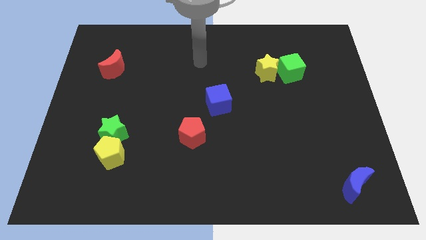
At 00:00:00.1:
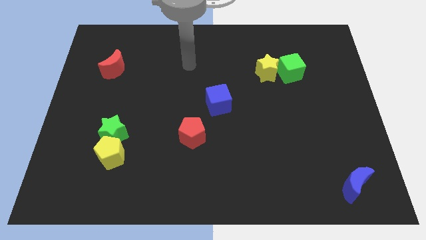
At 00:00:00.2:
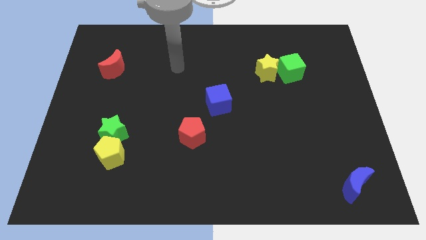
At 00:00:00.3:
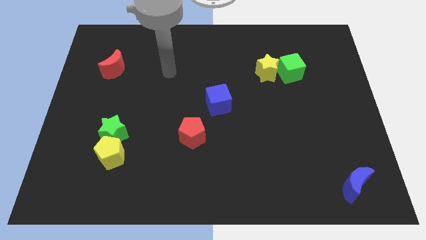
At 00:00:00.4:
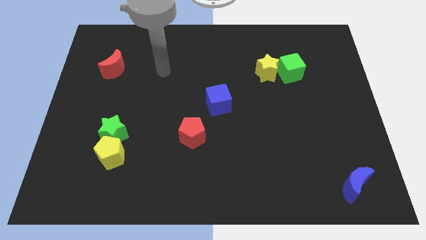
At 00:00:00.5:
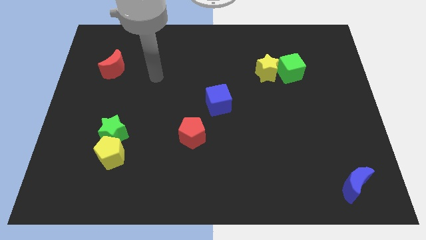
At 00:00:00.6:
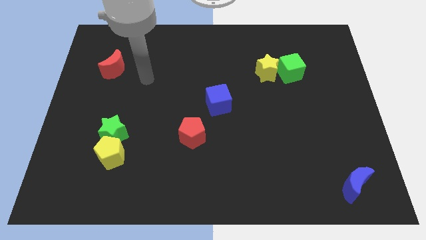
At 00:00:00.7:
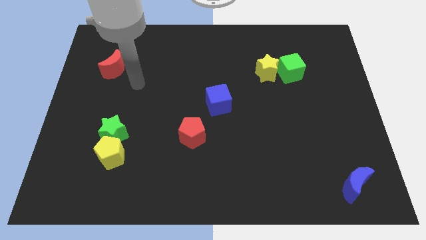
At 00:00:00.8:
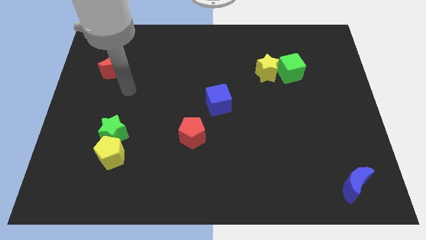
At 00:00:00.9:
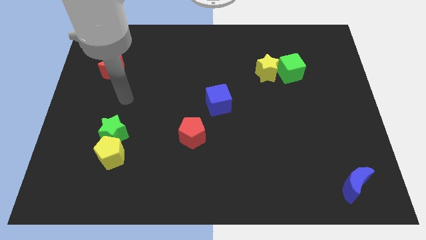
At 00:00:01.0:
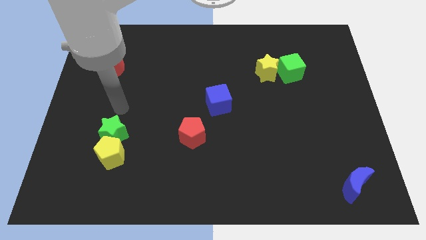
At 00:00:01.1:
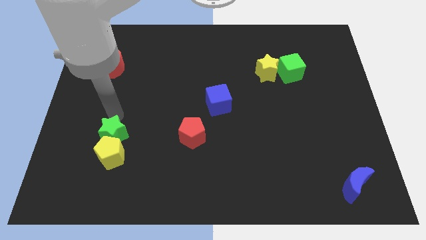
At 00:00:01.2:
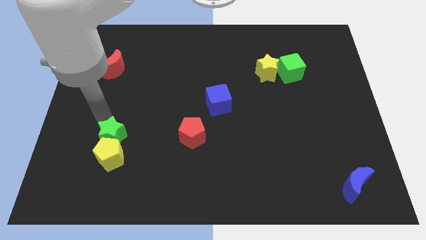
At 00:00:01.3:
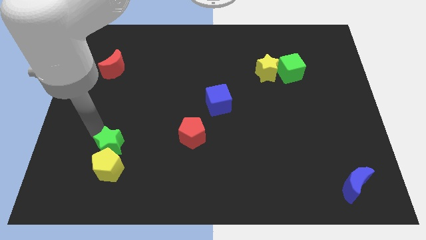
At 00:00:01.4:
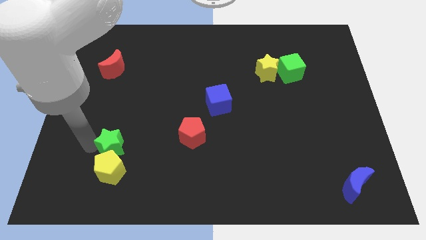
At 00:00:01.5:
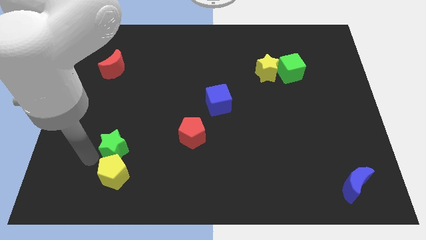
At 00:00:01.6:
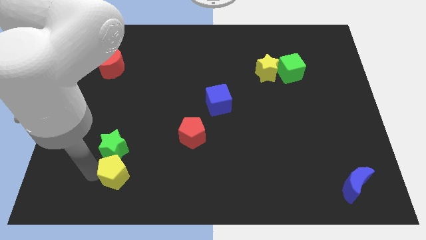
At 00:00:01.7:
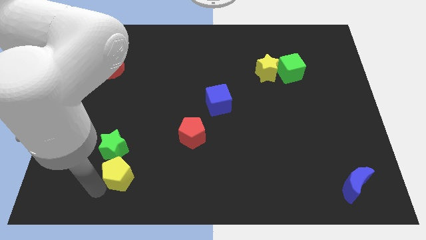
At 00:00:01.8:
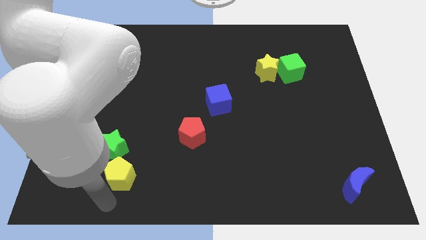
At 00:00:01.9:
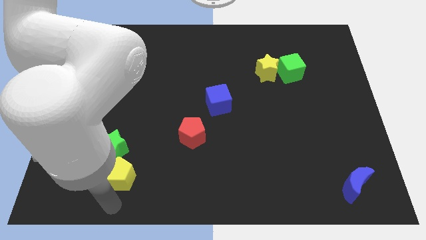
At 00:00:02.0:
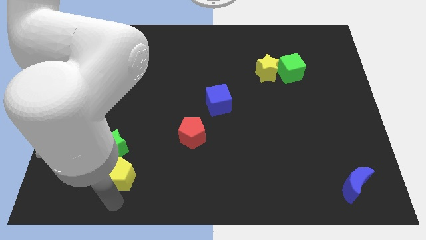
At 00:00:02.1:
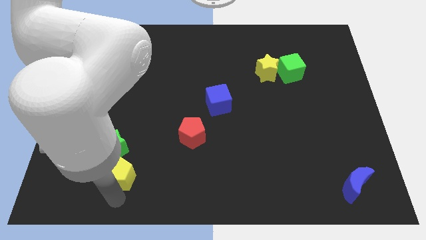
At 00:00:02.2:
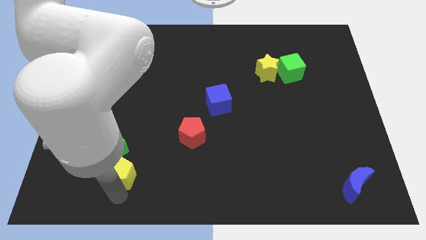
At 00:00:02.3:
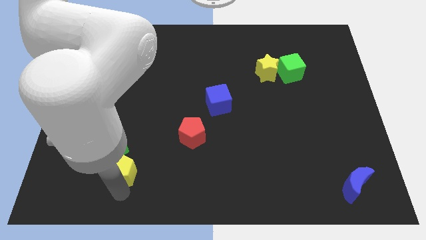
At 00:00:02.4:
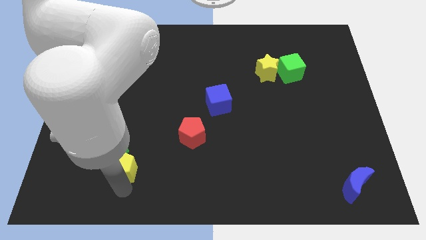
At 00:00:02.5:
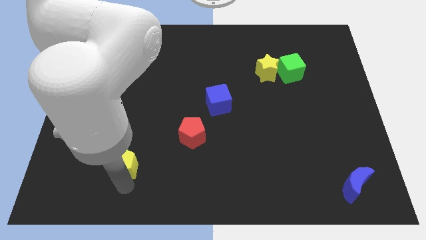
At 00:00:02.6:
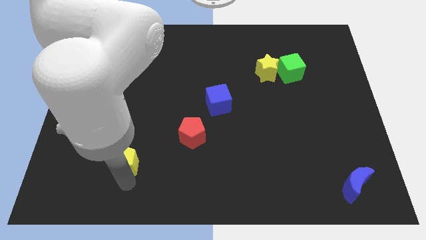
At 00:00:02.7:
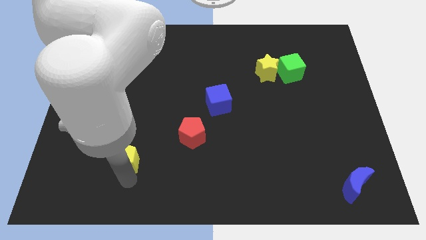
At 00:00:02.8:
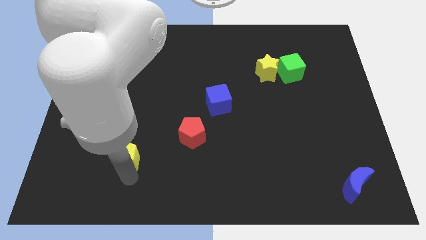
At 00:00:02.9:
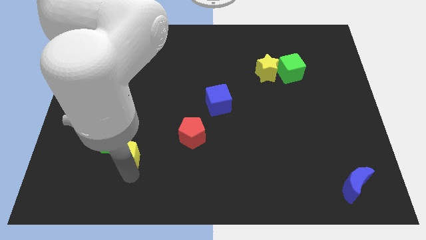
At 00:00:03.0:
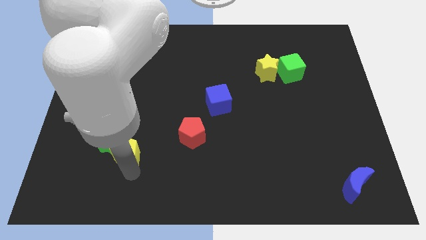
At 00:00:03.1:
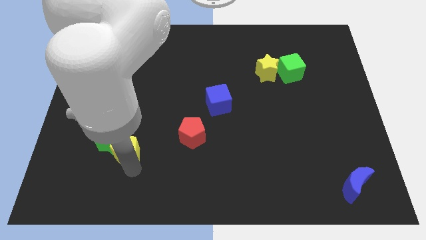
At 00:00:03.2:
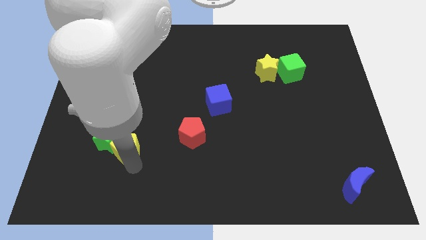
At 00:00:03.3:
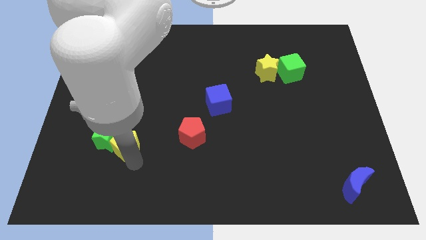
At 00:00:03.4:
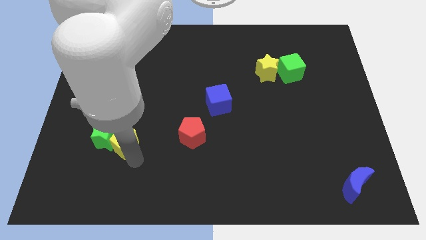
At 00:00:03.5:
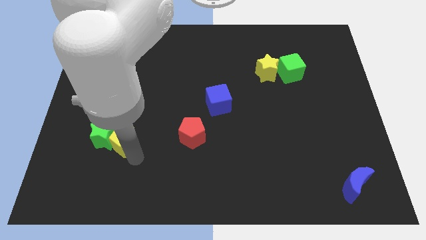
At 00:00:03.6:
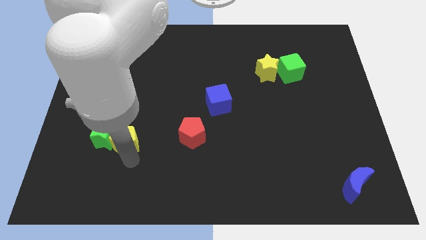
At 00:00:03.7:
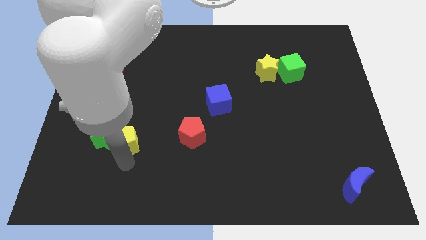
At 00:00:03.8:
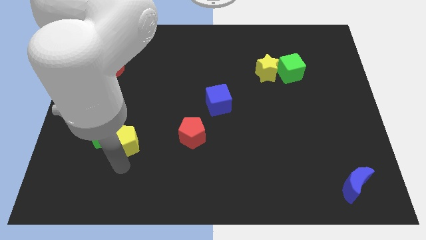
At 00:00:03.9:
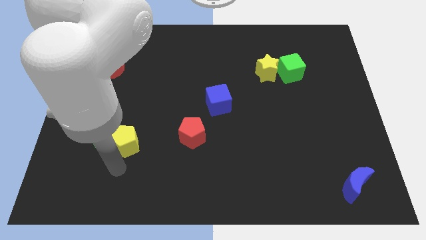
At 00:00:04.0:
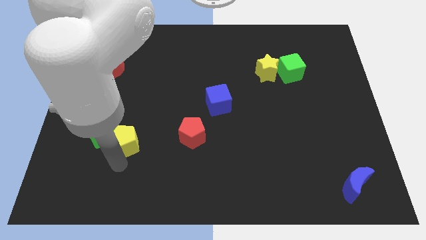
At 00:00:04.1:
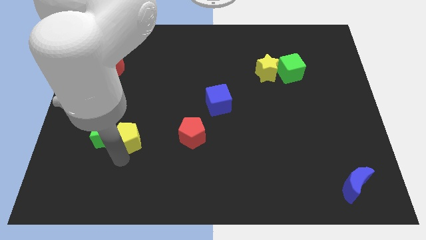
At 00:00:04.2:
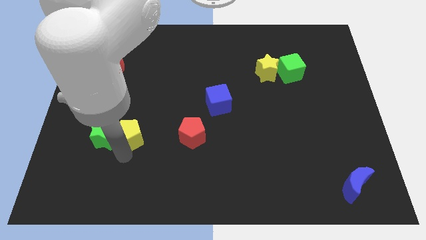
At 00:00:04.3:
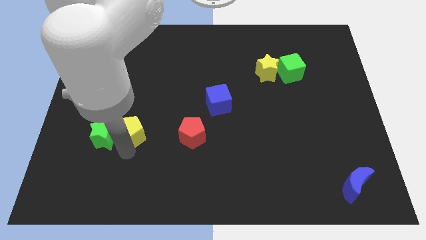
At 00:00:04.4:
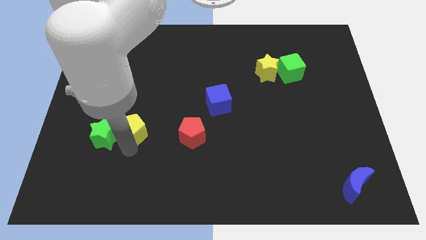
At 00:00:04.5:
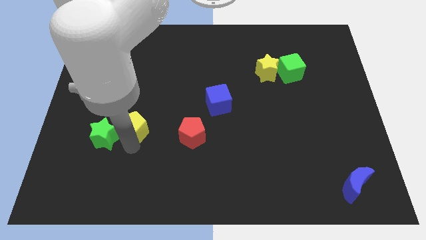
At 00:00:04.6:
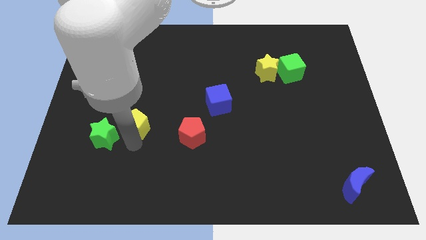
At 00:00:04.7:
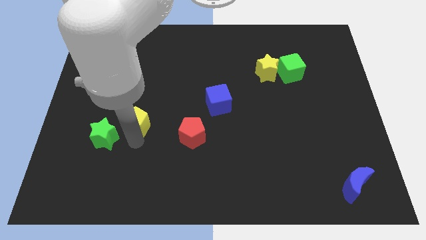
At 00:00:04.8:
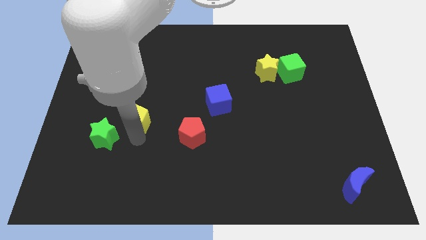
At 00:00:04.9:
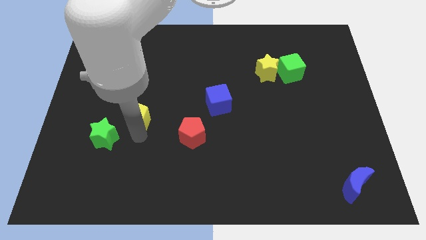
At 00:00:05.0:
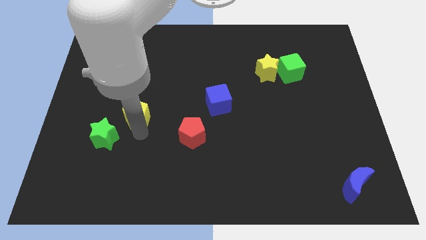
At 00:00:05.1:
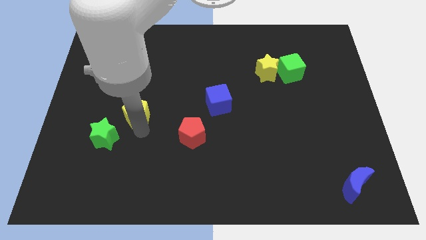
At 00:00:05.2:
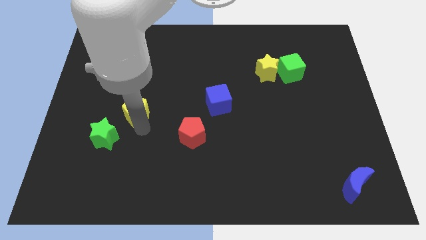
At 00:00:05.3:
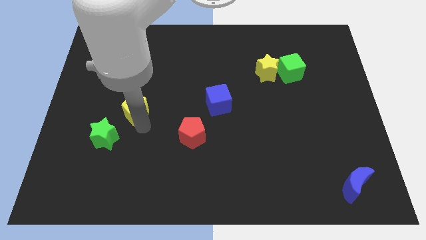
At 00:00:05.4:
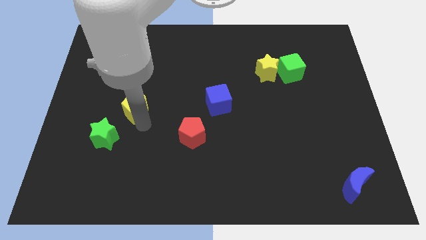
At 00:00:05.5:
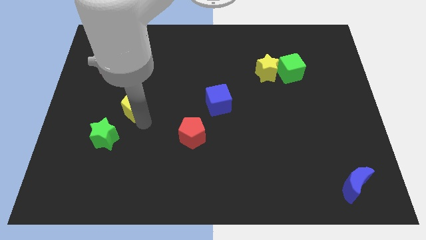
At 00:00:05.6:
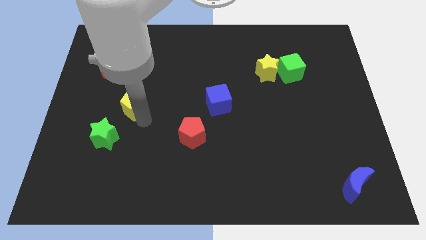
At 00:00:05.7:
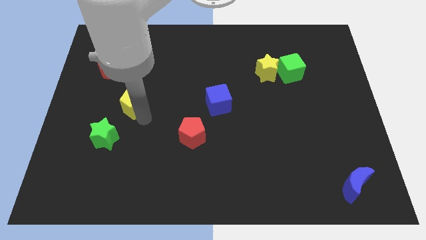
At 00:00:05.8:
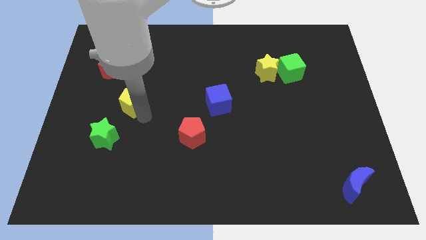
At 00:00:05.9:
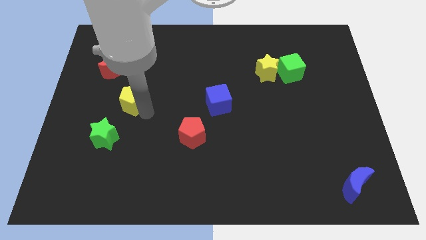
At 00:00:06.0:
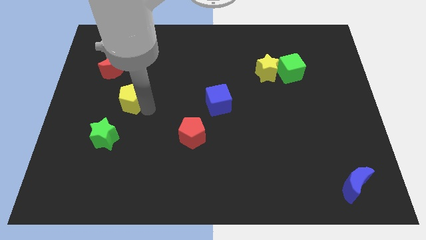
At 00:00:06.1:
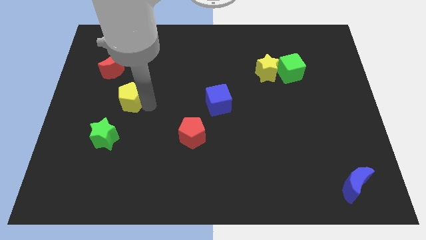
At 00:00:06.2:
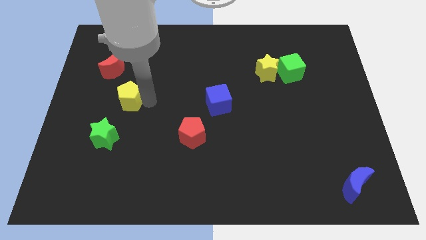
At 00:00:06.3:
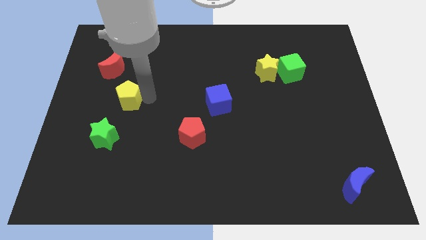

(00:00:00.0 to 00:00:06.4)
put the yellow pentagon below the red moon
